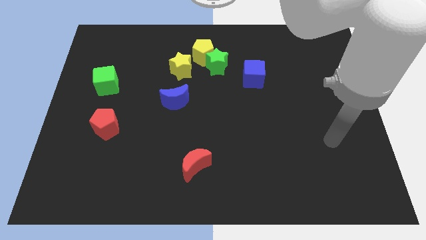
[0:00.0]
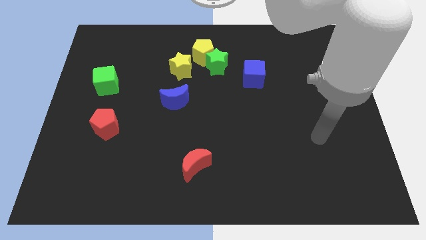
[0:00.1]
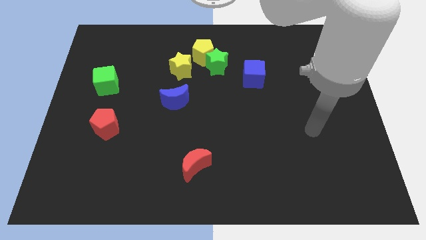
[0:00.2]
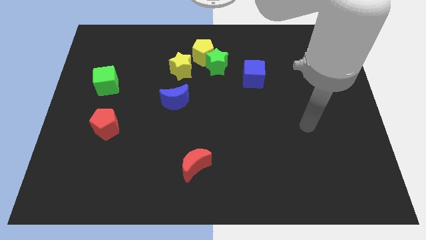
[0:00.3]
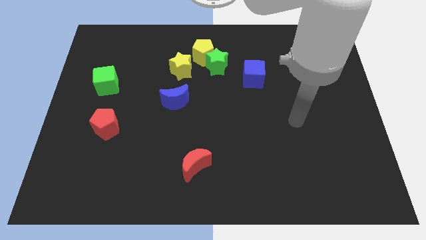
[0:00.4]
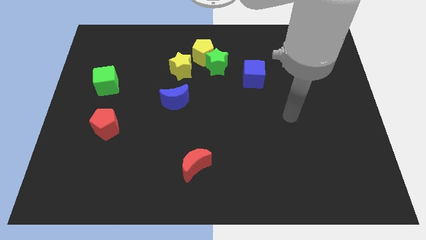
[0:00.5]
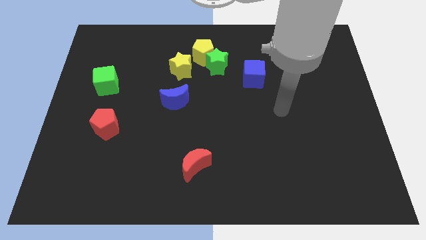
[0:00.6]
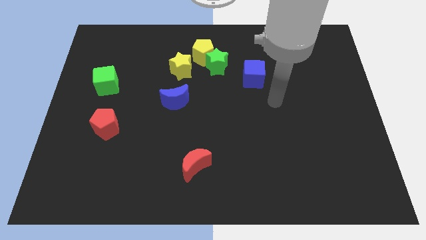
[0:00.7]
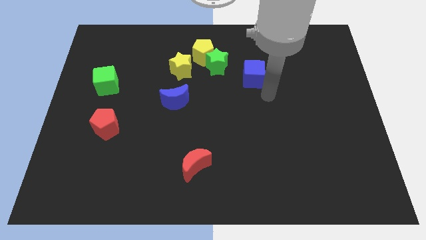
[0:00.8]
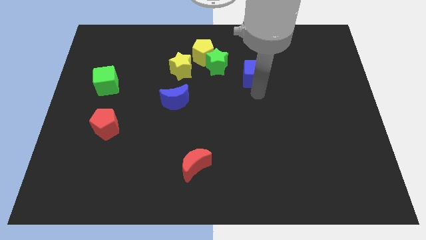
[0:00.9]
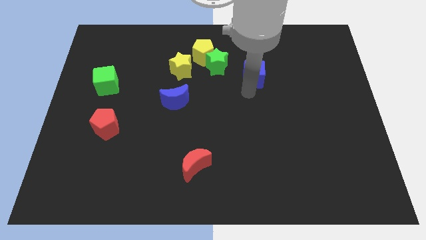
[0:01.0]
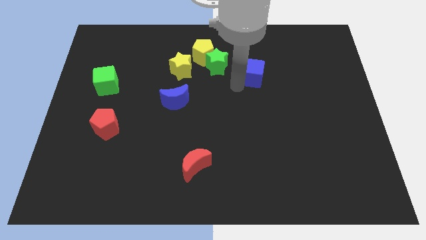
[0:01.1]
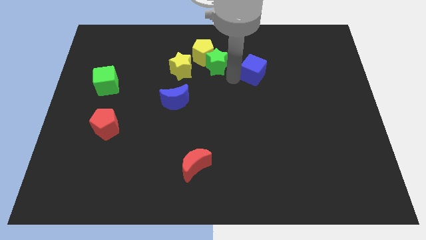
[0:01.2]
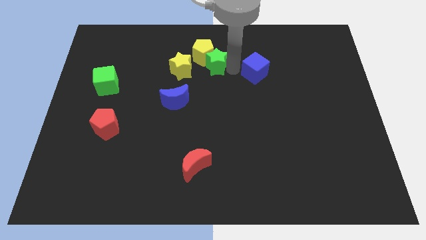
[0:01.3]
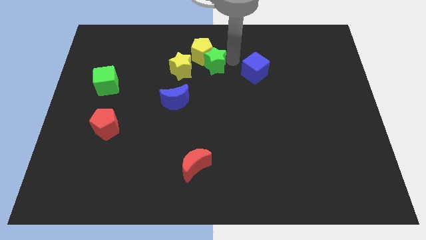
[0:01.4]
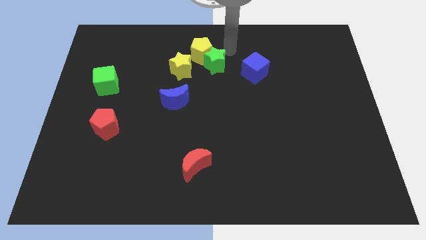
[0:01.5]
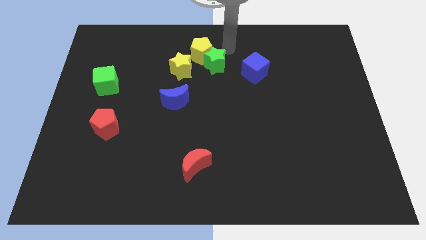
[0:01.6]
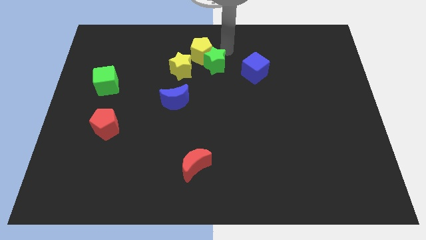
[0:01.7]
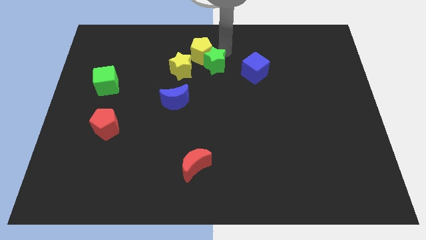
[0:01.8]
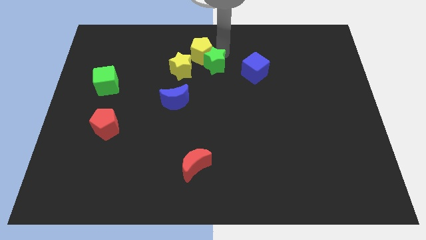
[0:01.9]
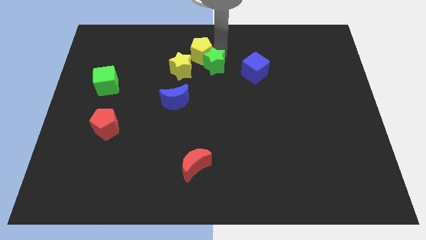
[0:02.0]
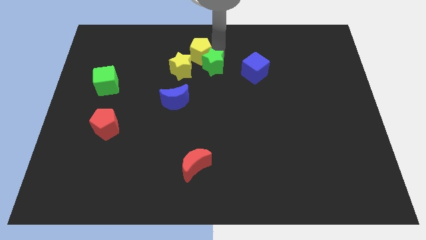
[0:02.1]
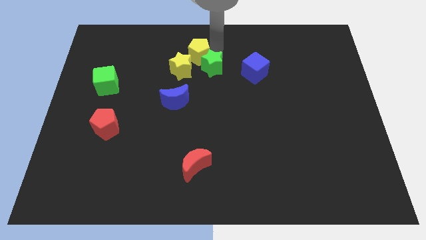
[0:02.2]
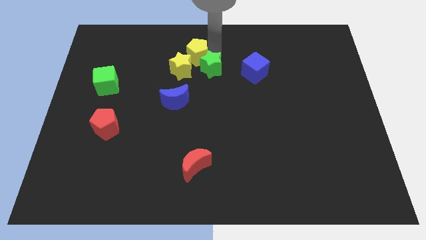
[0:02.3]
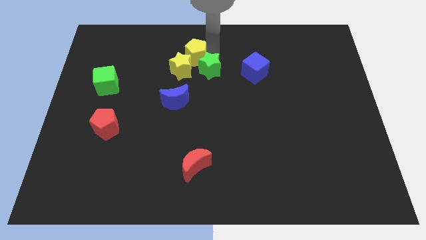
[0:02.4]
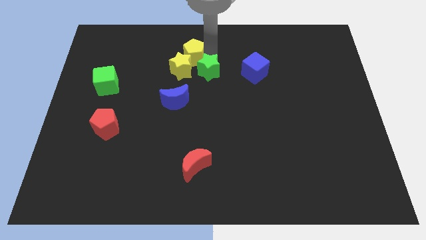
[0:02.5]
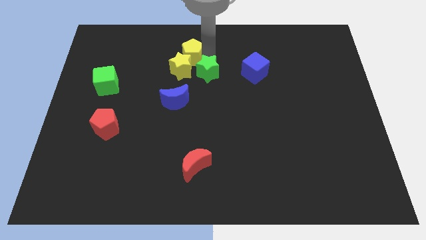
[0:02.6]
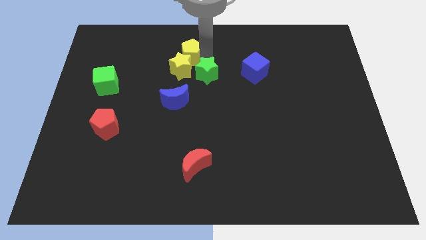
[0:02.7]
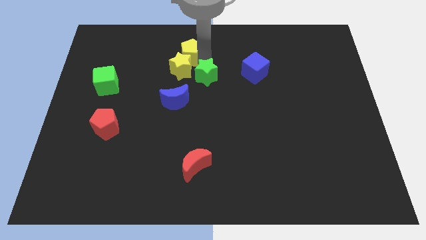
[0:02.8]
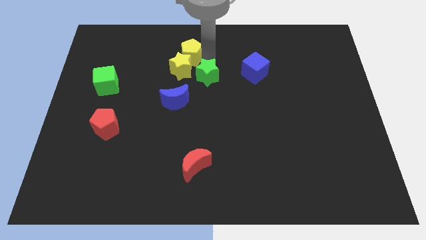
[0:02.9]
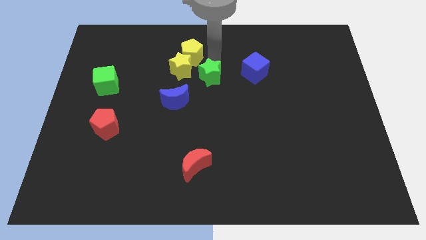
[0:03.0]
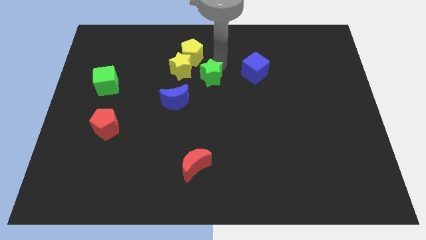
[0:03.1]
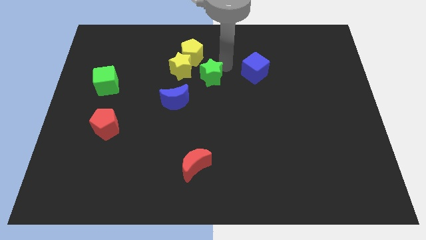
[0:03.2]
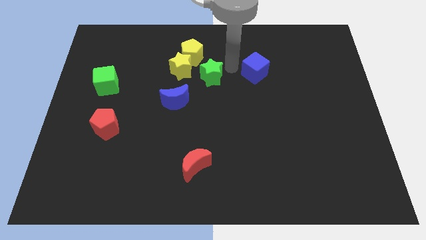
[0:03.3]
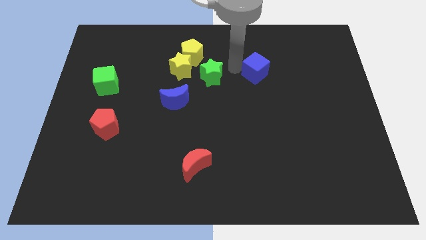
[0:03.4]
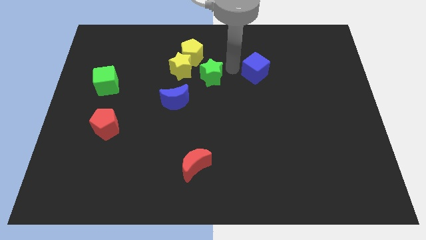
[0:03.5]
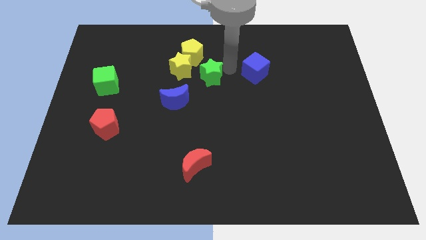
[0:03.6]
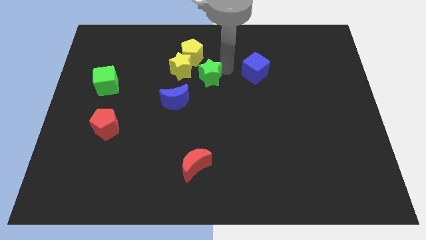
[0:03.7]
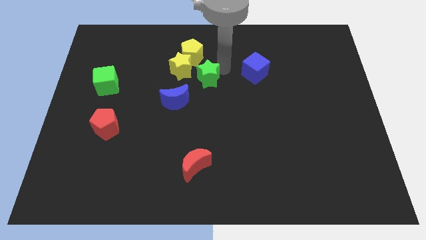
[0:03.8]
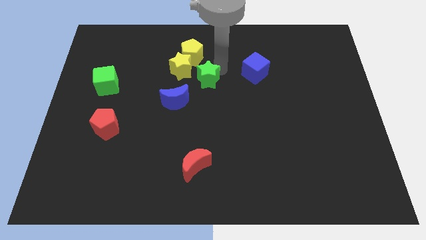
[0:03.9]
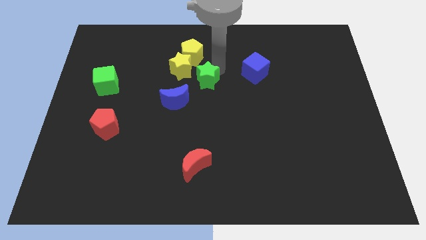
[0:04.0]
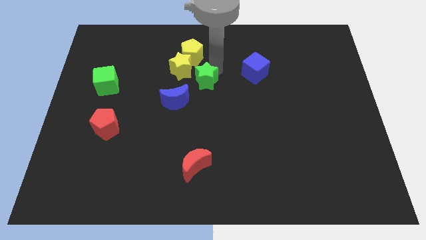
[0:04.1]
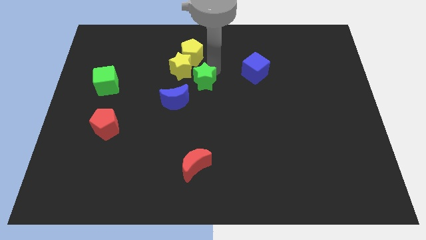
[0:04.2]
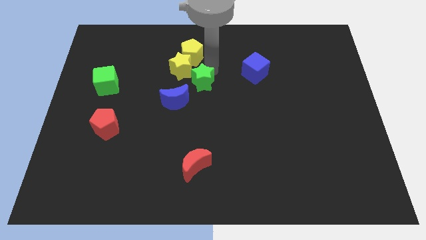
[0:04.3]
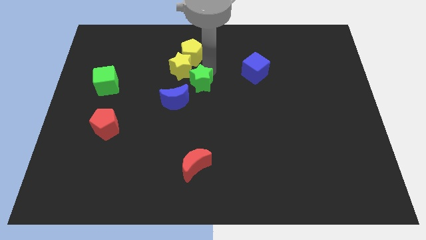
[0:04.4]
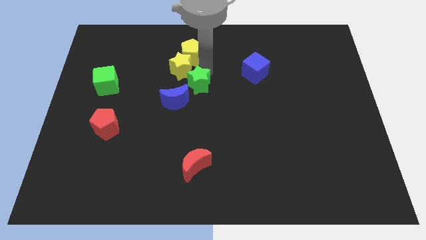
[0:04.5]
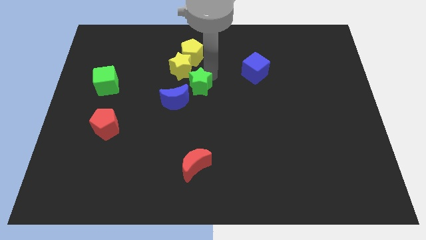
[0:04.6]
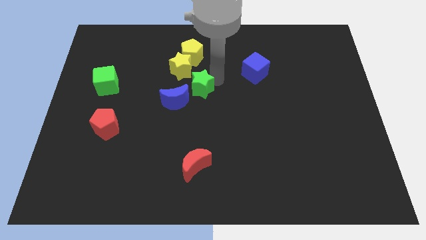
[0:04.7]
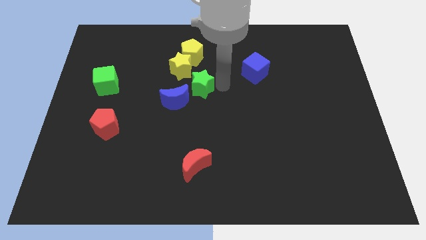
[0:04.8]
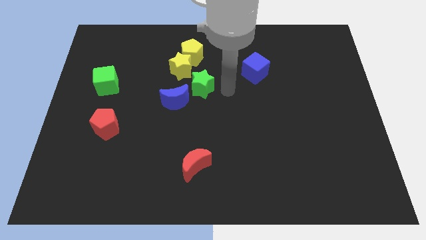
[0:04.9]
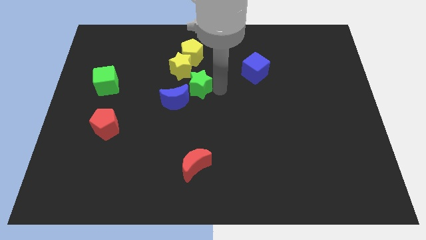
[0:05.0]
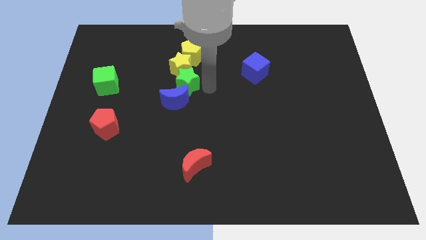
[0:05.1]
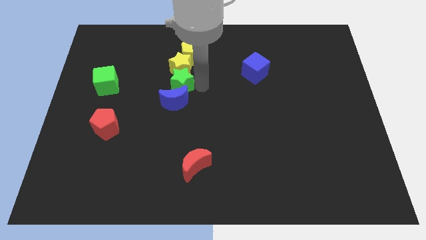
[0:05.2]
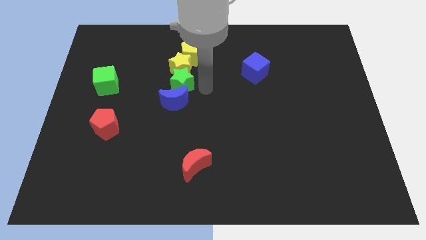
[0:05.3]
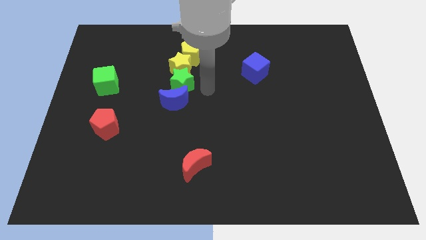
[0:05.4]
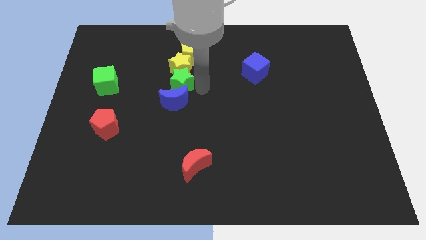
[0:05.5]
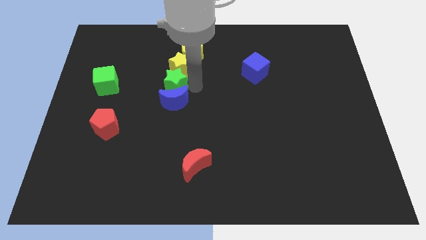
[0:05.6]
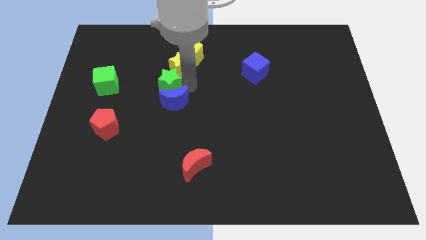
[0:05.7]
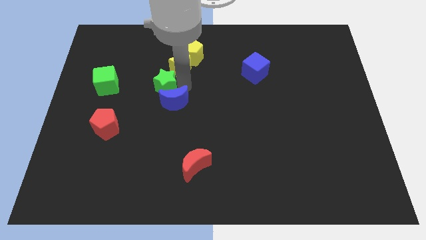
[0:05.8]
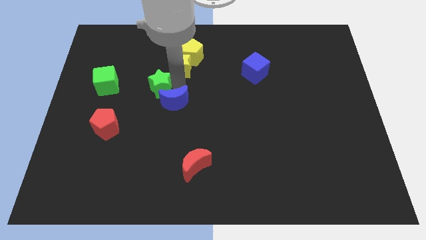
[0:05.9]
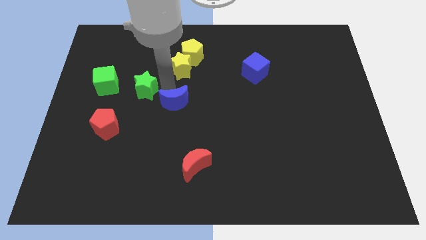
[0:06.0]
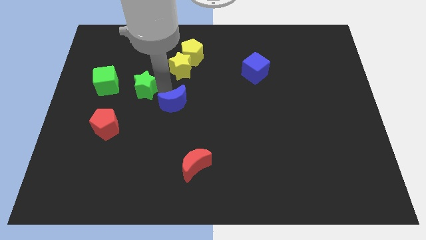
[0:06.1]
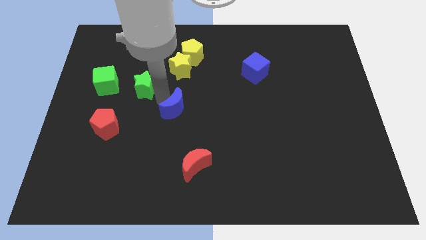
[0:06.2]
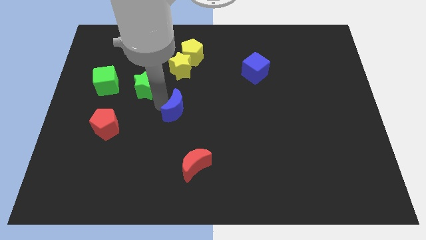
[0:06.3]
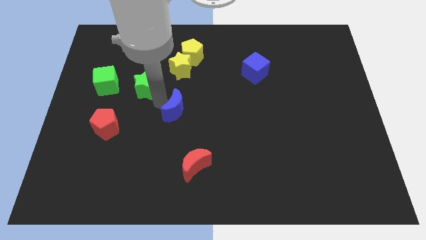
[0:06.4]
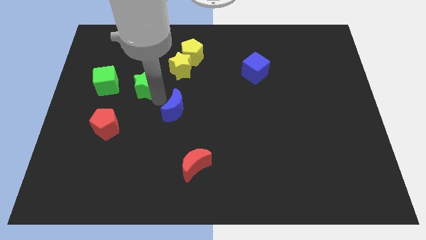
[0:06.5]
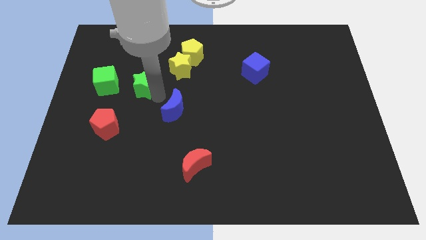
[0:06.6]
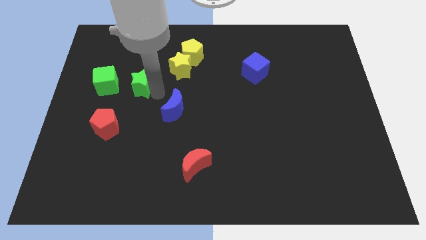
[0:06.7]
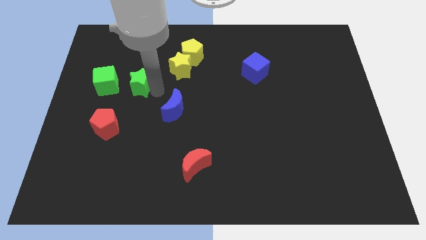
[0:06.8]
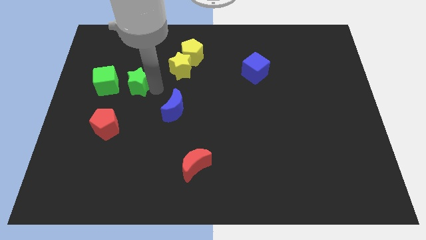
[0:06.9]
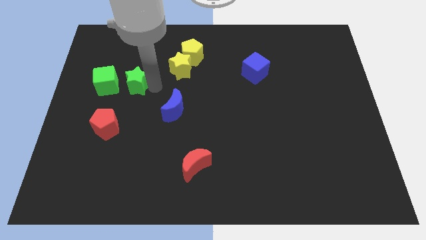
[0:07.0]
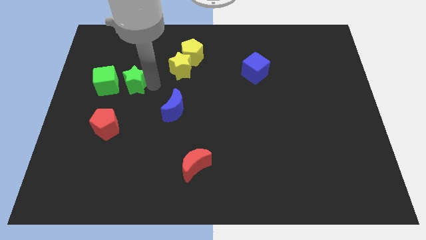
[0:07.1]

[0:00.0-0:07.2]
slide the green star to the top right side of the green cube
